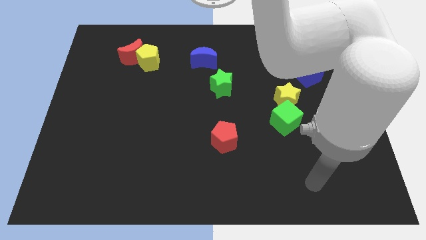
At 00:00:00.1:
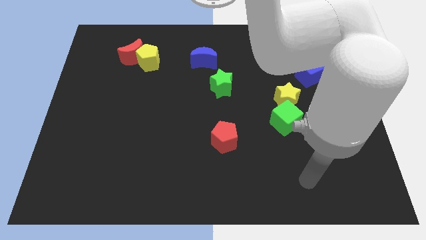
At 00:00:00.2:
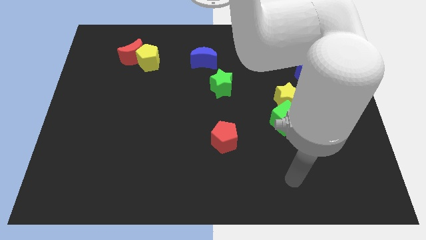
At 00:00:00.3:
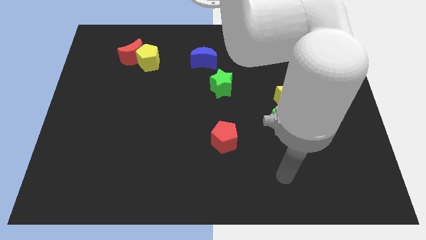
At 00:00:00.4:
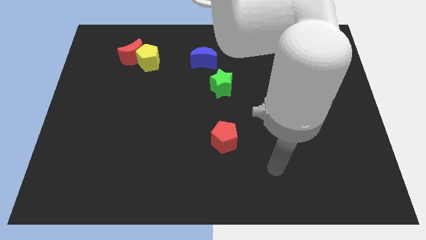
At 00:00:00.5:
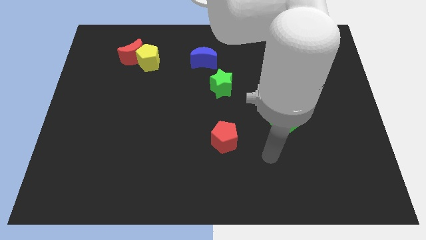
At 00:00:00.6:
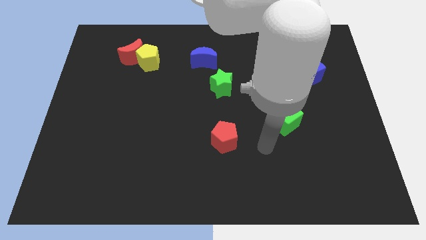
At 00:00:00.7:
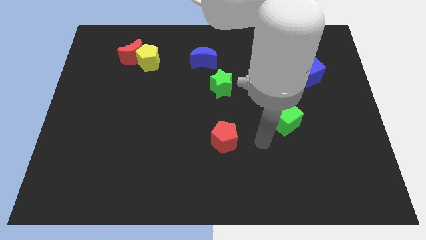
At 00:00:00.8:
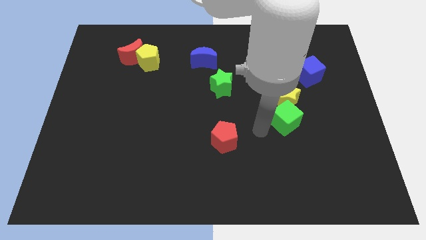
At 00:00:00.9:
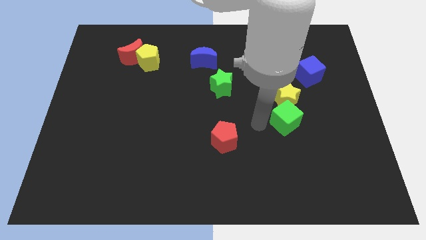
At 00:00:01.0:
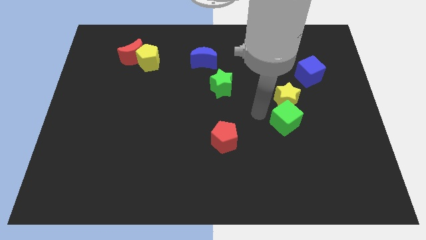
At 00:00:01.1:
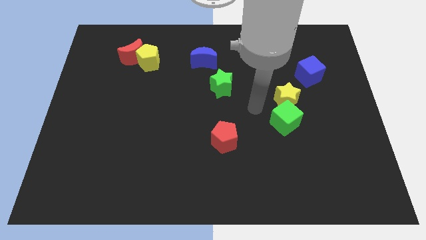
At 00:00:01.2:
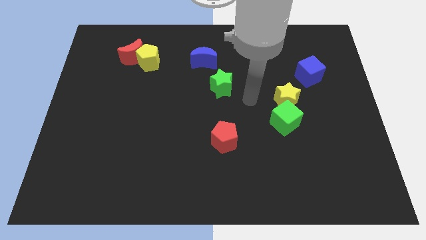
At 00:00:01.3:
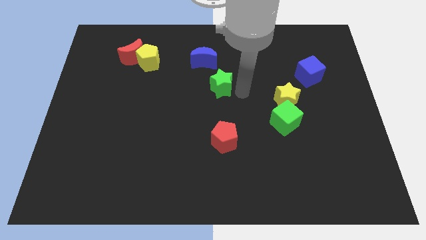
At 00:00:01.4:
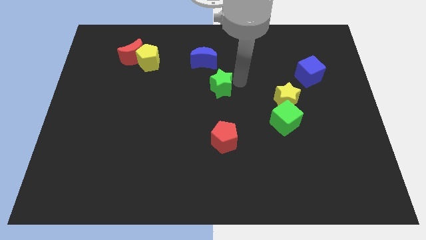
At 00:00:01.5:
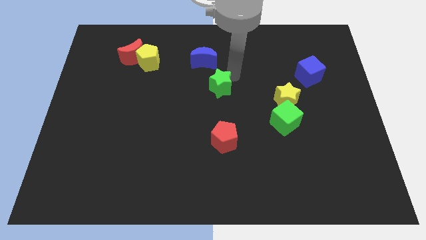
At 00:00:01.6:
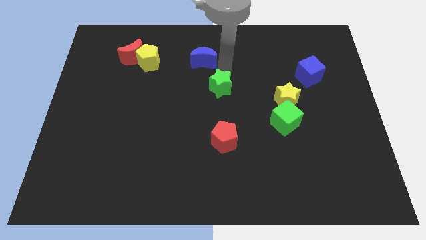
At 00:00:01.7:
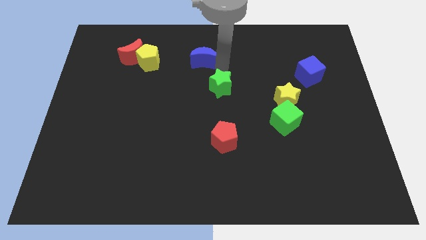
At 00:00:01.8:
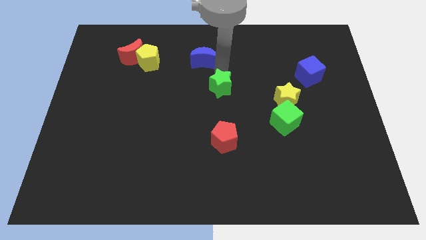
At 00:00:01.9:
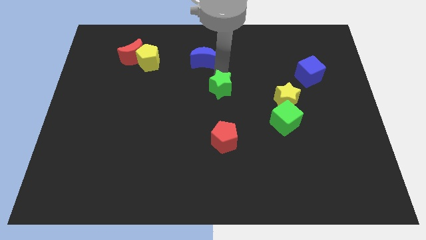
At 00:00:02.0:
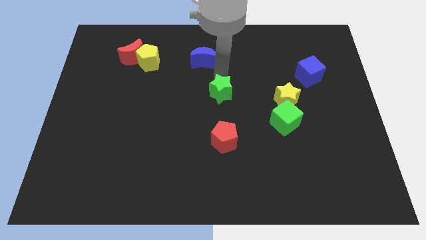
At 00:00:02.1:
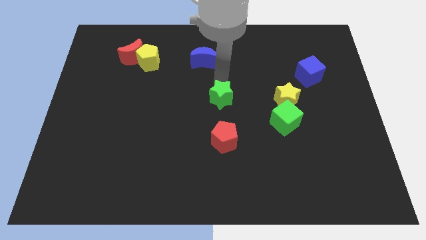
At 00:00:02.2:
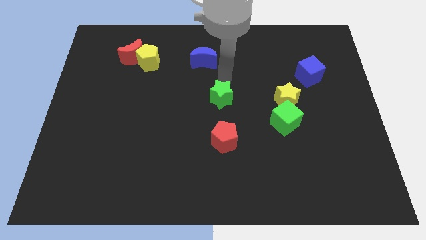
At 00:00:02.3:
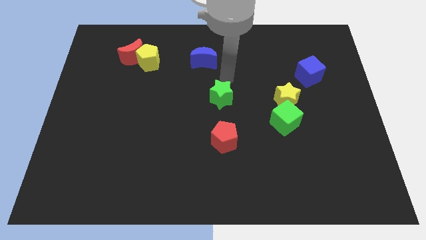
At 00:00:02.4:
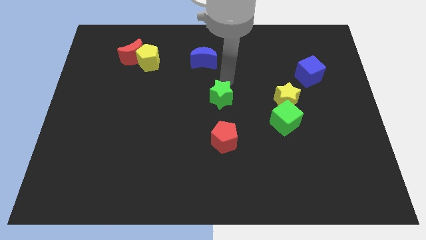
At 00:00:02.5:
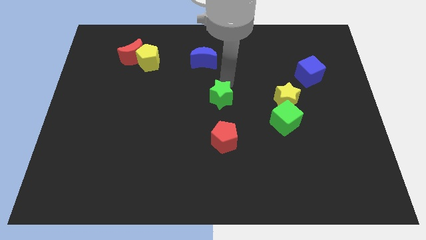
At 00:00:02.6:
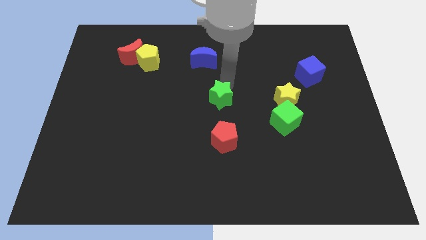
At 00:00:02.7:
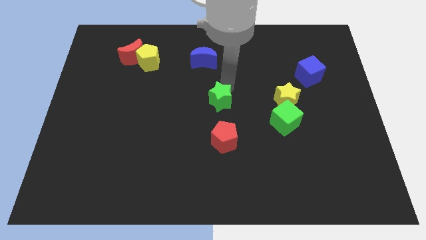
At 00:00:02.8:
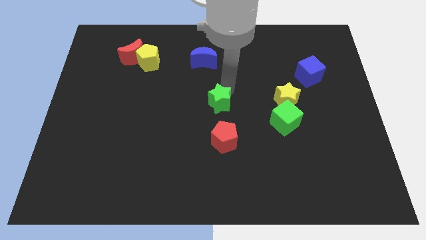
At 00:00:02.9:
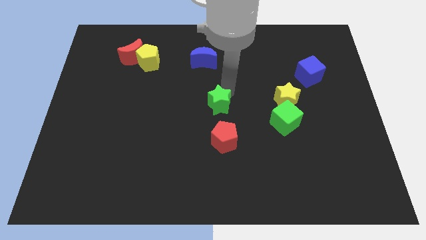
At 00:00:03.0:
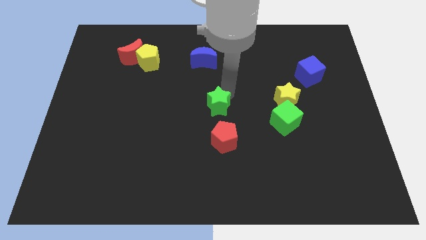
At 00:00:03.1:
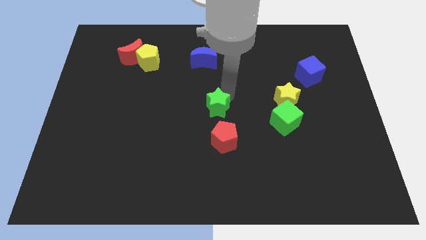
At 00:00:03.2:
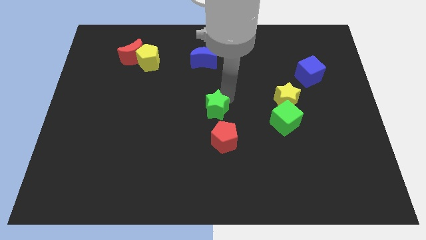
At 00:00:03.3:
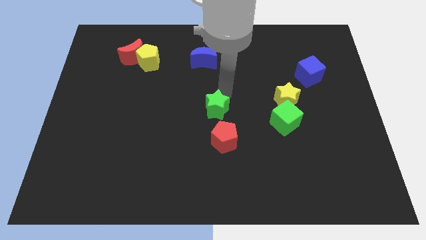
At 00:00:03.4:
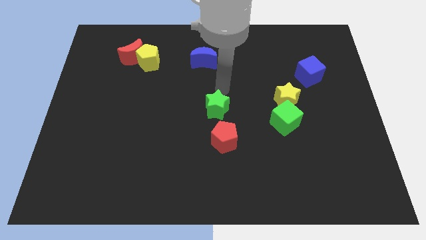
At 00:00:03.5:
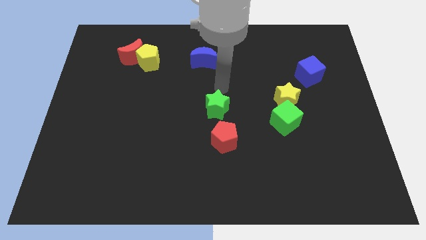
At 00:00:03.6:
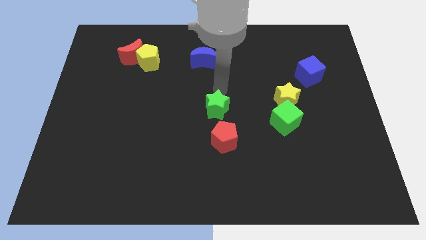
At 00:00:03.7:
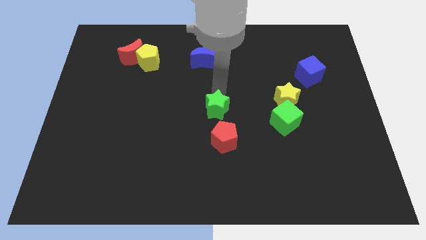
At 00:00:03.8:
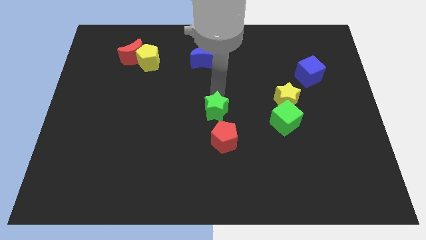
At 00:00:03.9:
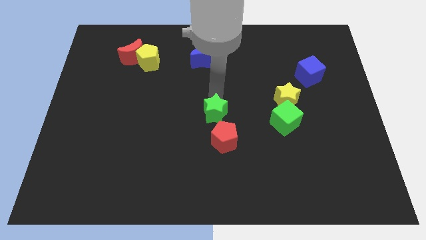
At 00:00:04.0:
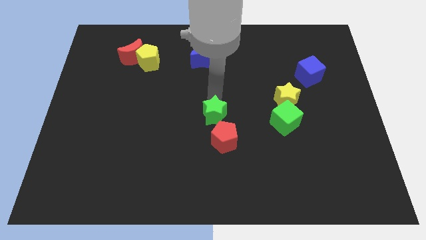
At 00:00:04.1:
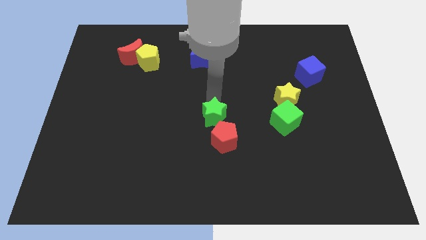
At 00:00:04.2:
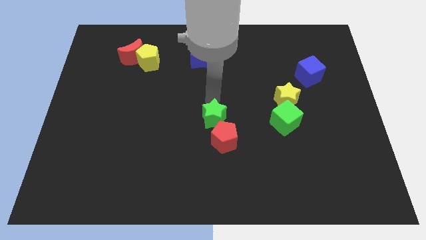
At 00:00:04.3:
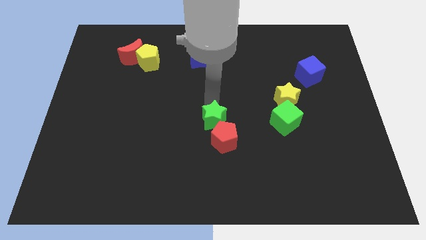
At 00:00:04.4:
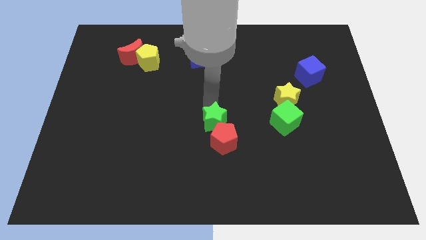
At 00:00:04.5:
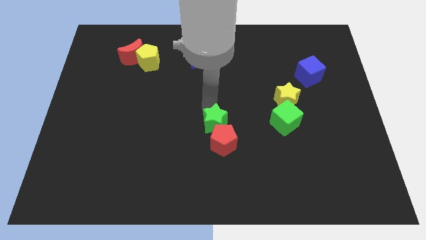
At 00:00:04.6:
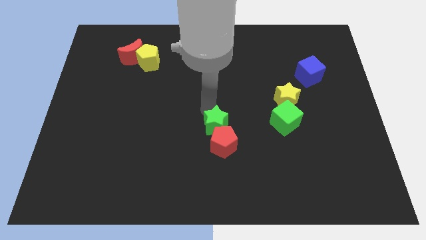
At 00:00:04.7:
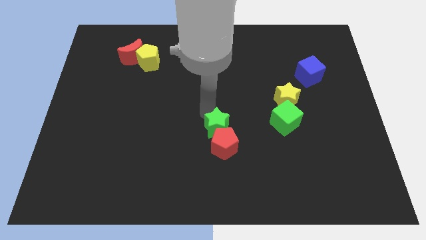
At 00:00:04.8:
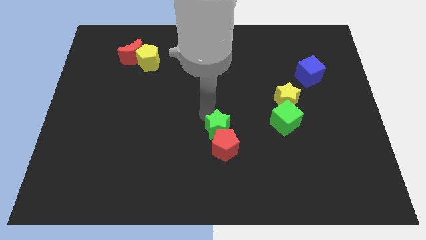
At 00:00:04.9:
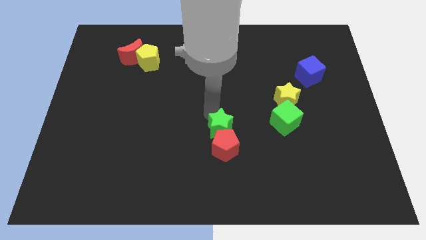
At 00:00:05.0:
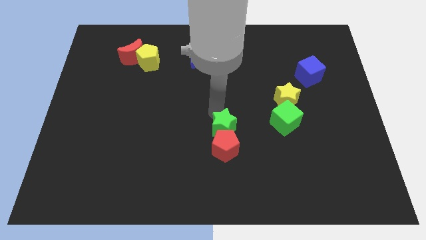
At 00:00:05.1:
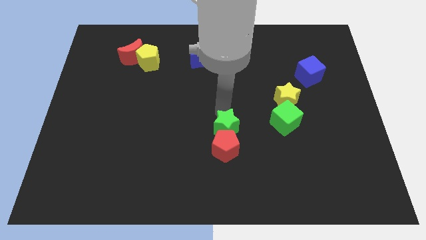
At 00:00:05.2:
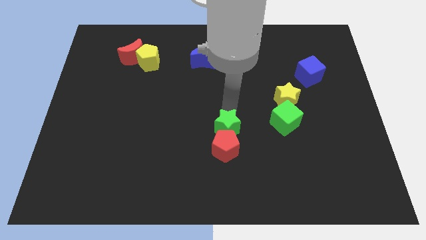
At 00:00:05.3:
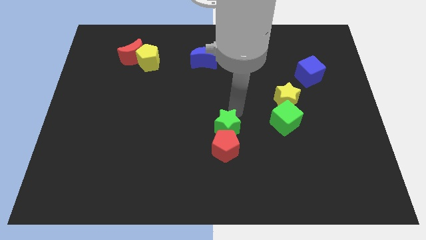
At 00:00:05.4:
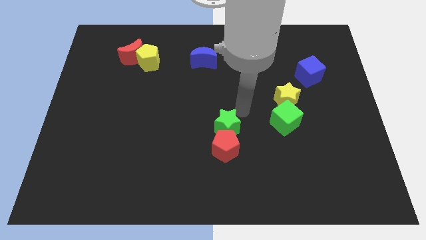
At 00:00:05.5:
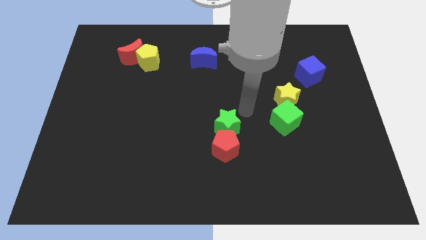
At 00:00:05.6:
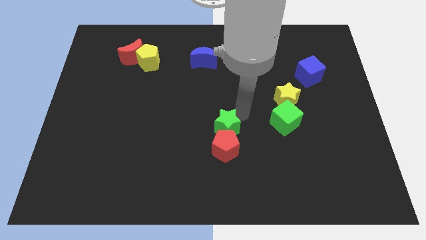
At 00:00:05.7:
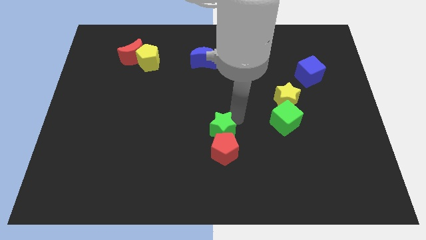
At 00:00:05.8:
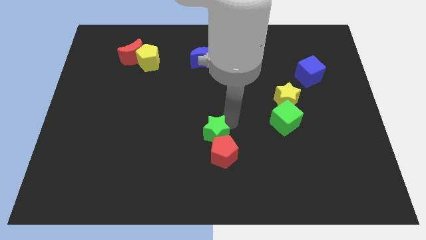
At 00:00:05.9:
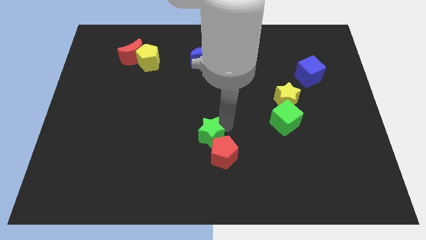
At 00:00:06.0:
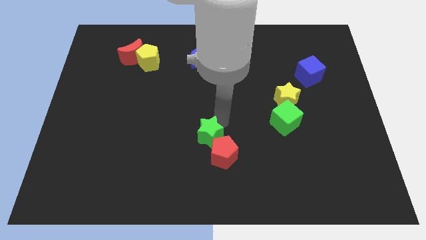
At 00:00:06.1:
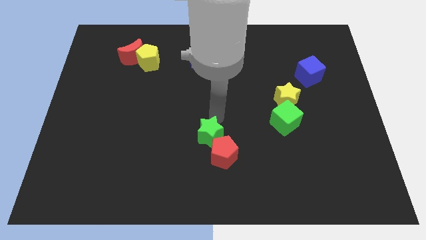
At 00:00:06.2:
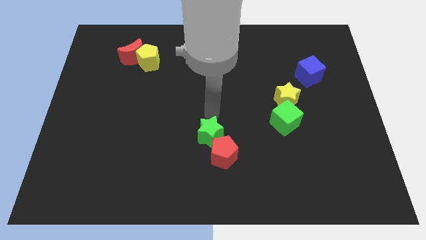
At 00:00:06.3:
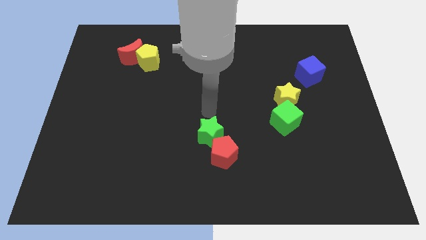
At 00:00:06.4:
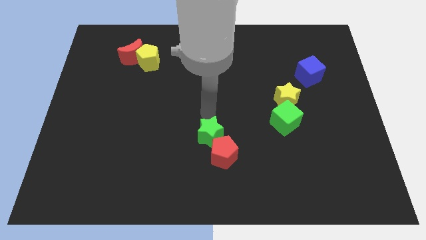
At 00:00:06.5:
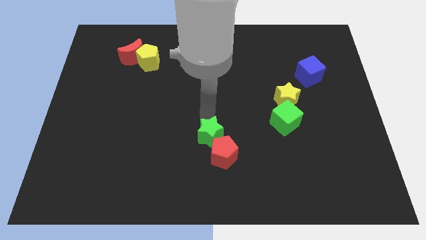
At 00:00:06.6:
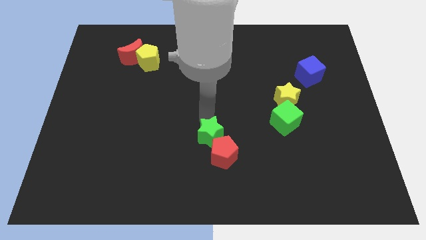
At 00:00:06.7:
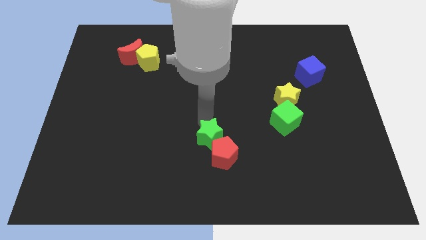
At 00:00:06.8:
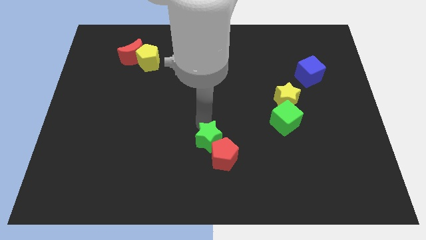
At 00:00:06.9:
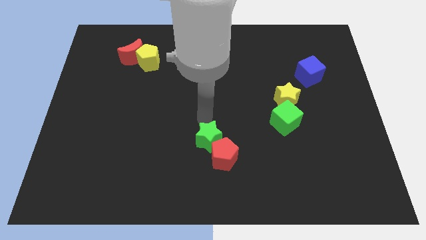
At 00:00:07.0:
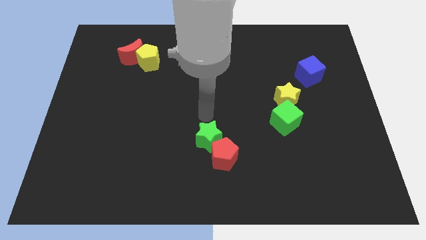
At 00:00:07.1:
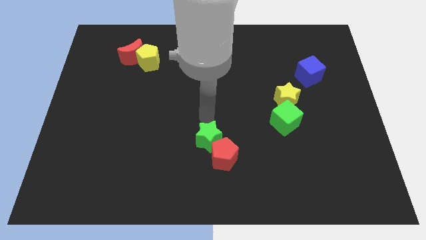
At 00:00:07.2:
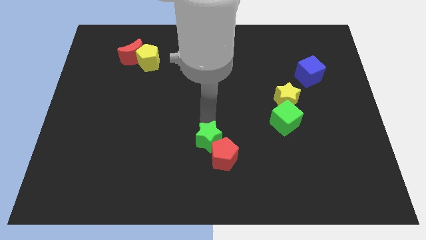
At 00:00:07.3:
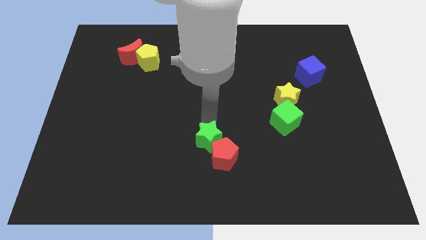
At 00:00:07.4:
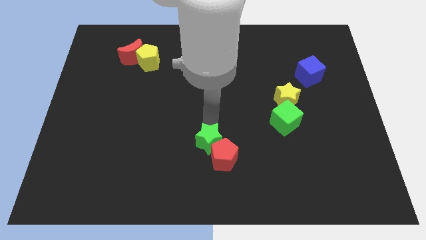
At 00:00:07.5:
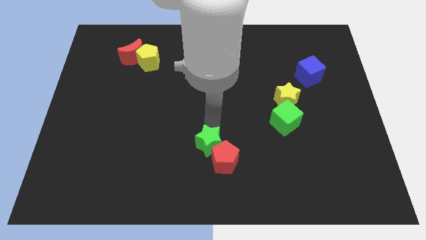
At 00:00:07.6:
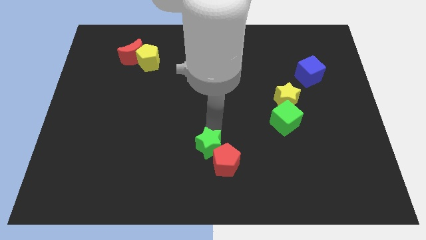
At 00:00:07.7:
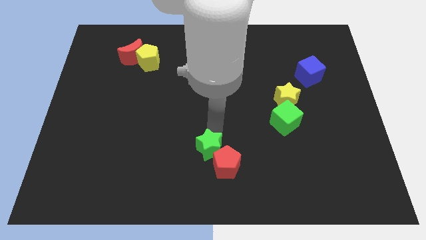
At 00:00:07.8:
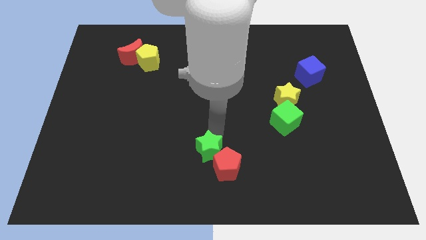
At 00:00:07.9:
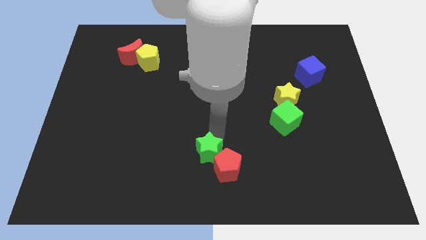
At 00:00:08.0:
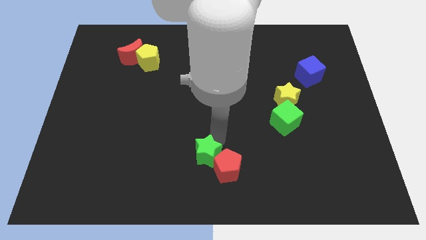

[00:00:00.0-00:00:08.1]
move the green star to the bottom
